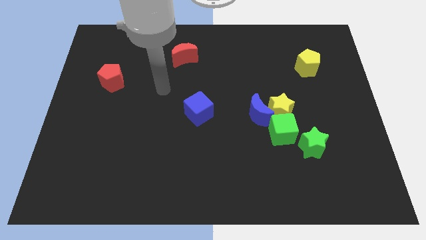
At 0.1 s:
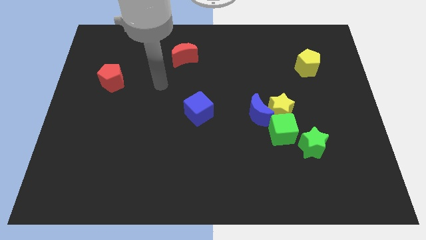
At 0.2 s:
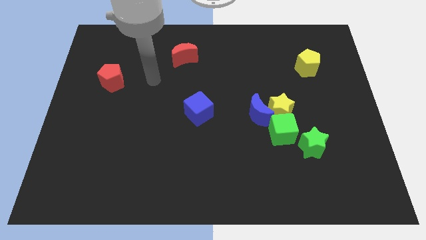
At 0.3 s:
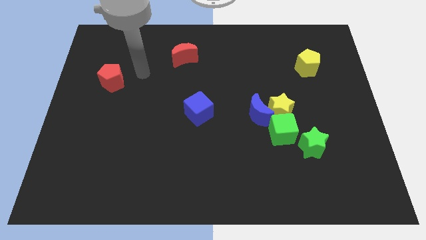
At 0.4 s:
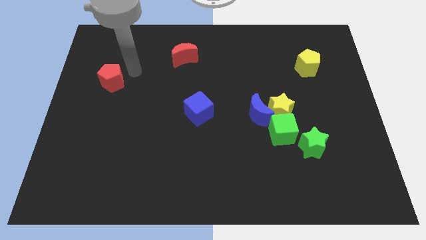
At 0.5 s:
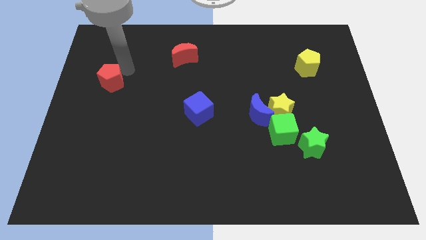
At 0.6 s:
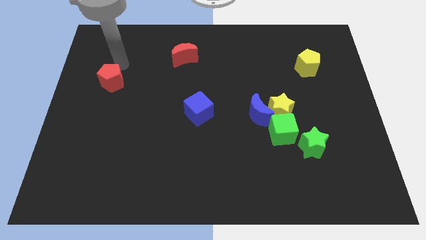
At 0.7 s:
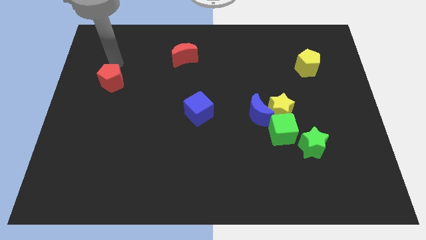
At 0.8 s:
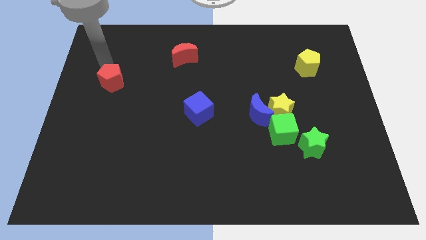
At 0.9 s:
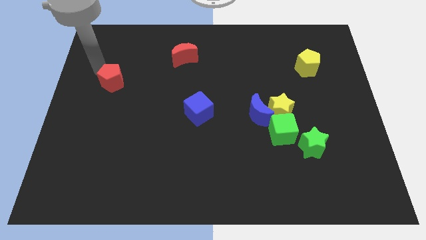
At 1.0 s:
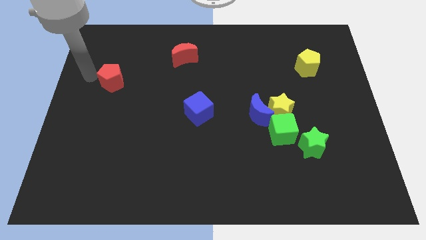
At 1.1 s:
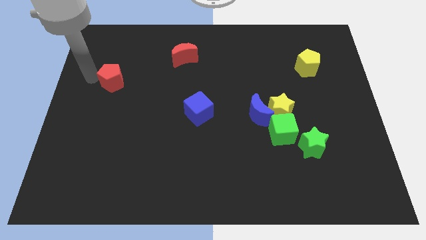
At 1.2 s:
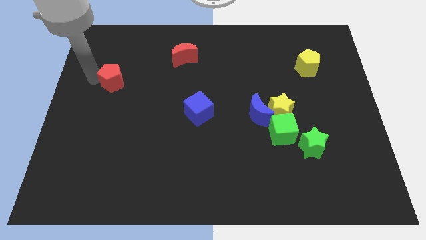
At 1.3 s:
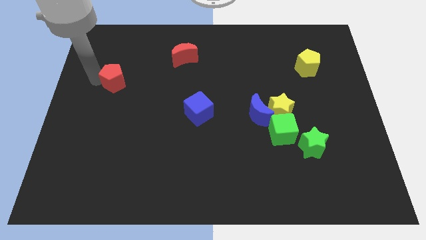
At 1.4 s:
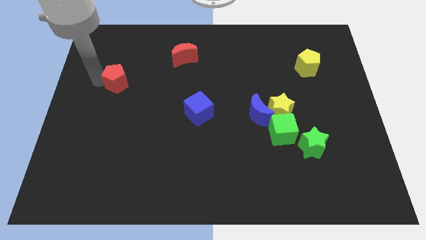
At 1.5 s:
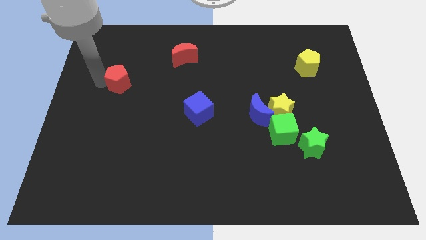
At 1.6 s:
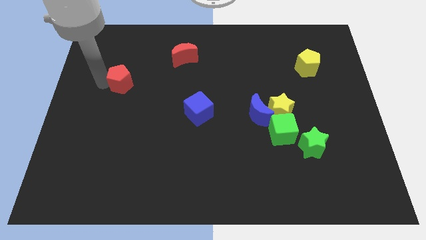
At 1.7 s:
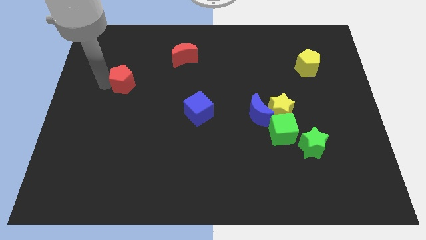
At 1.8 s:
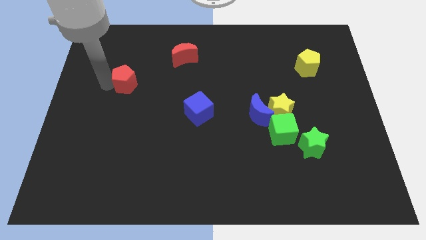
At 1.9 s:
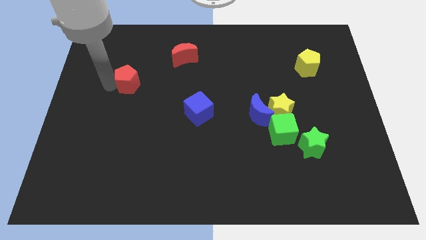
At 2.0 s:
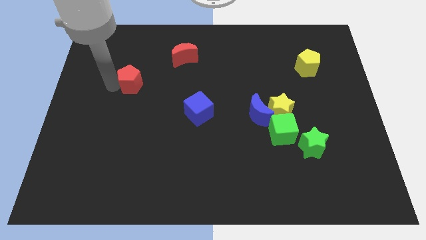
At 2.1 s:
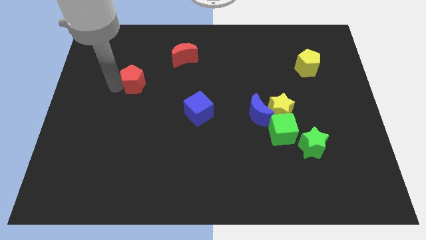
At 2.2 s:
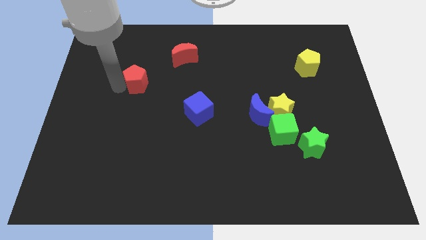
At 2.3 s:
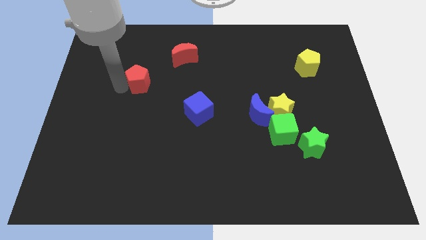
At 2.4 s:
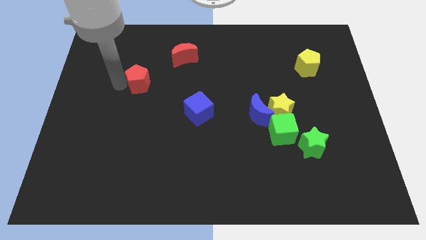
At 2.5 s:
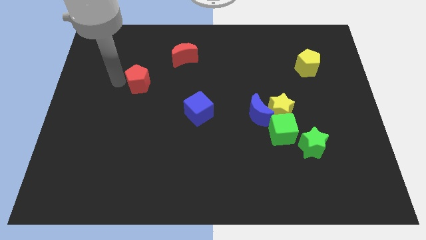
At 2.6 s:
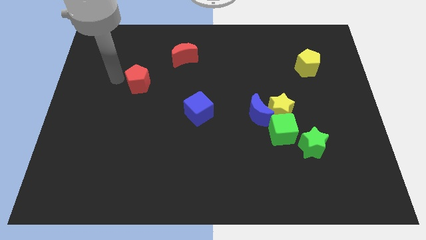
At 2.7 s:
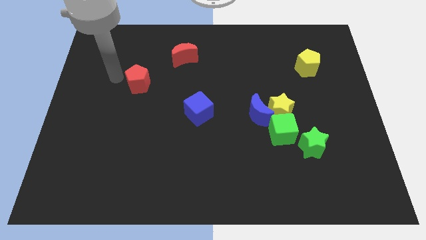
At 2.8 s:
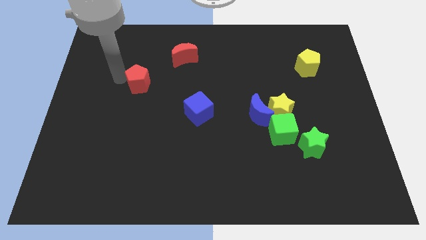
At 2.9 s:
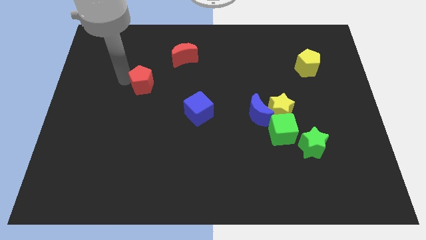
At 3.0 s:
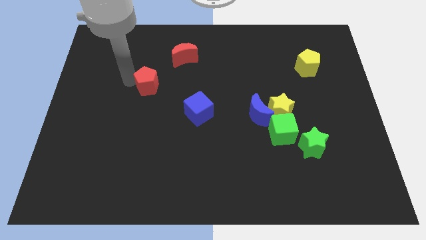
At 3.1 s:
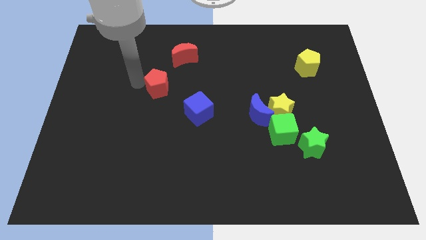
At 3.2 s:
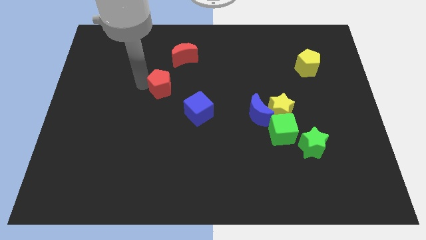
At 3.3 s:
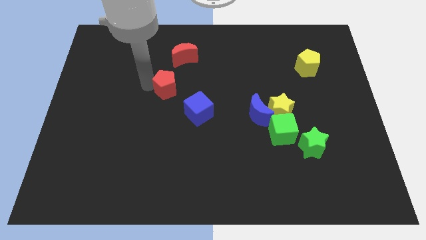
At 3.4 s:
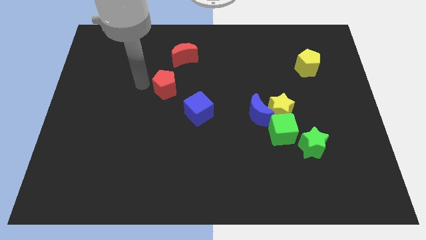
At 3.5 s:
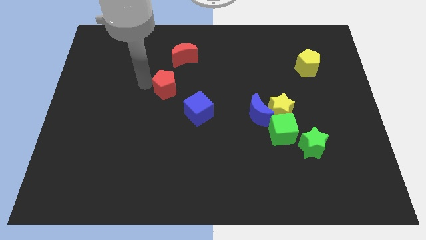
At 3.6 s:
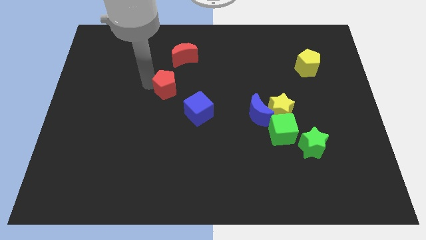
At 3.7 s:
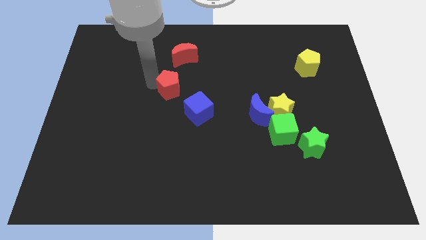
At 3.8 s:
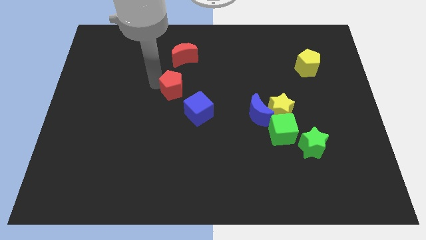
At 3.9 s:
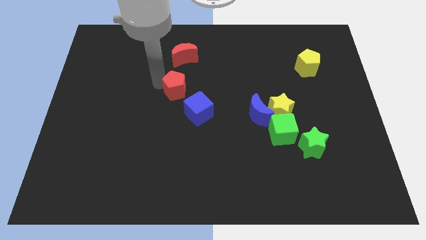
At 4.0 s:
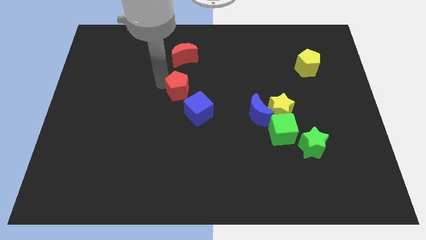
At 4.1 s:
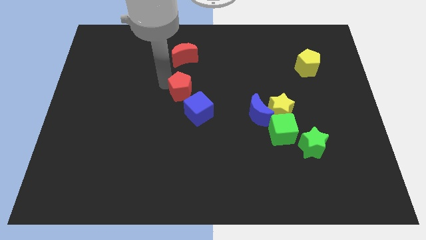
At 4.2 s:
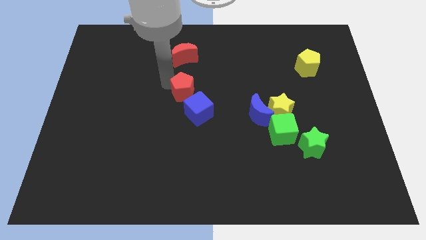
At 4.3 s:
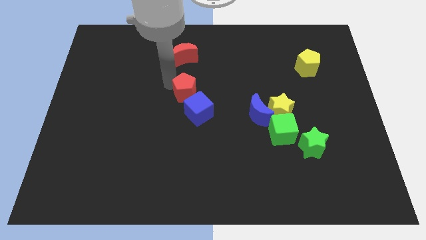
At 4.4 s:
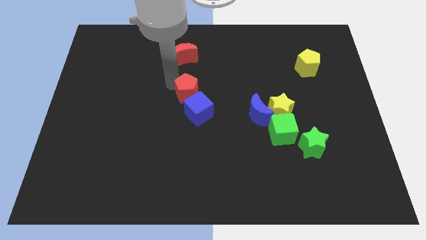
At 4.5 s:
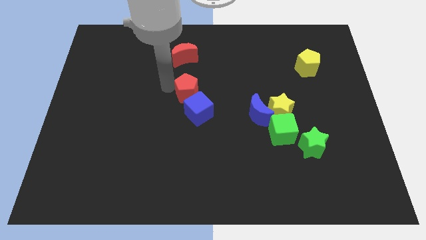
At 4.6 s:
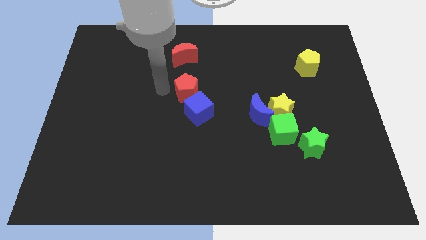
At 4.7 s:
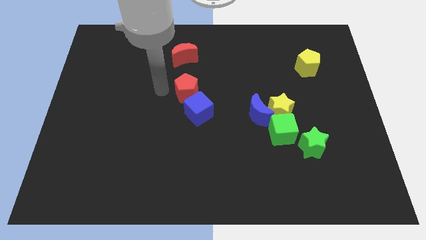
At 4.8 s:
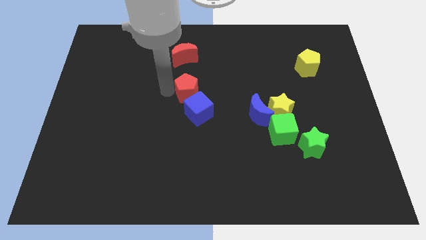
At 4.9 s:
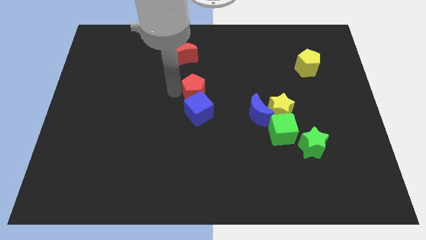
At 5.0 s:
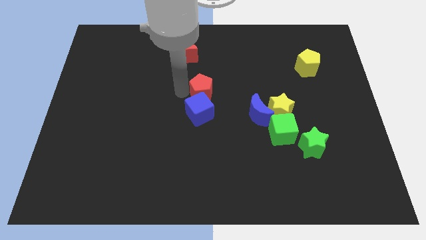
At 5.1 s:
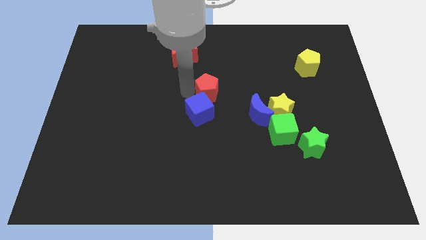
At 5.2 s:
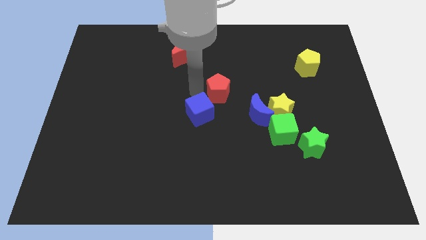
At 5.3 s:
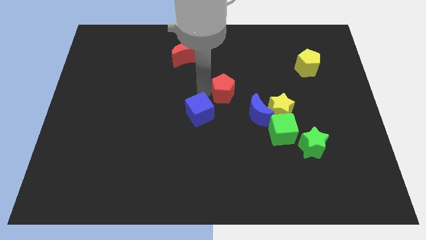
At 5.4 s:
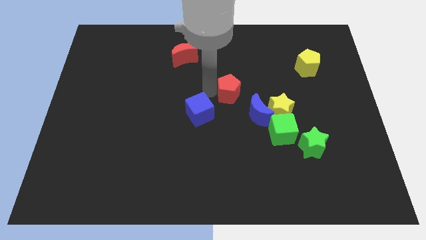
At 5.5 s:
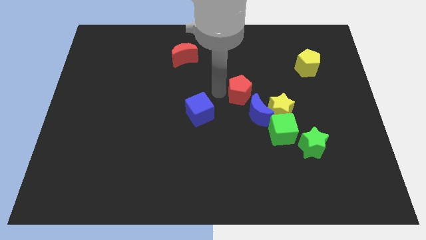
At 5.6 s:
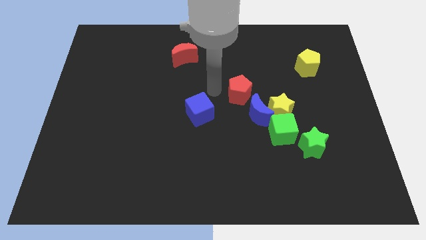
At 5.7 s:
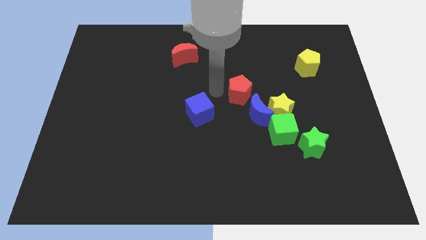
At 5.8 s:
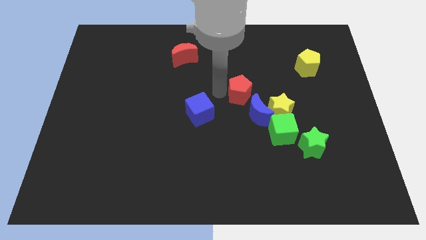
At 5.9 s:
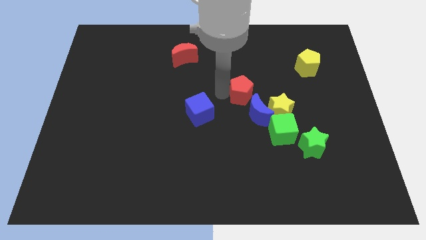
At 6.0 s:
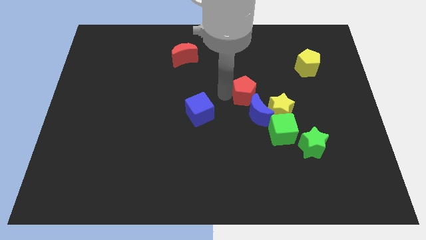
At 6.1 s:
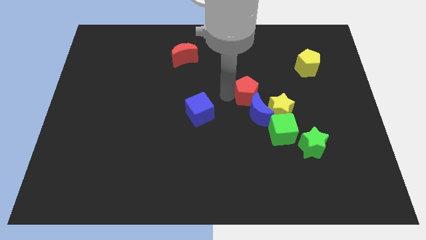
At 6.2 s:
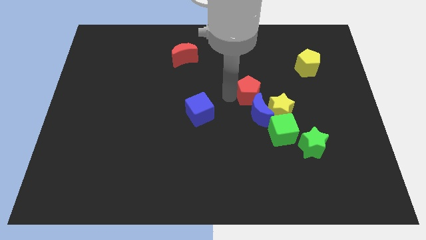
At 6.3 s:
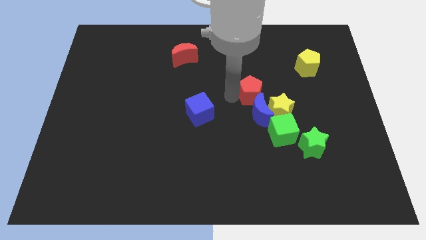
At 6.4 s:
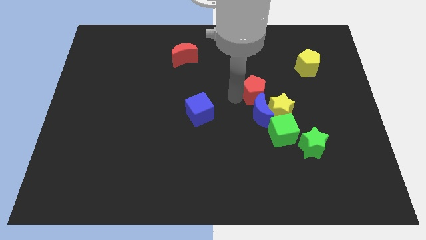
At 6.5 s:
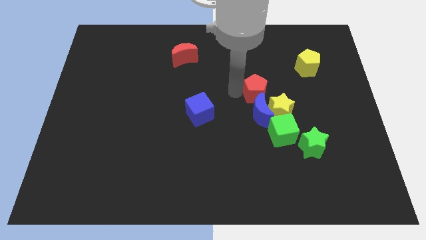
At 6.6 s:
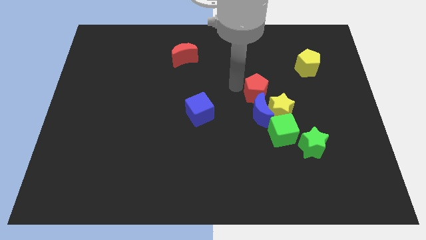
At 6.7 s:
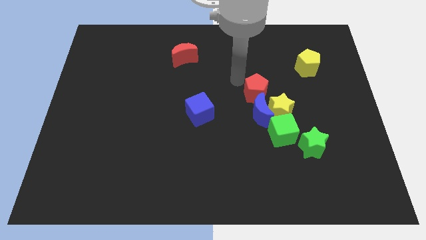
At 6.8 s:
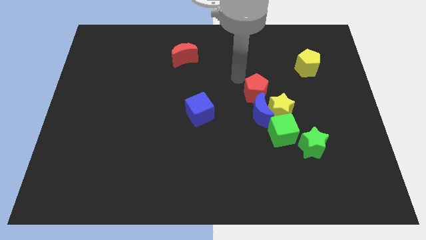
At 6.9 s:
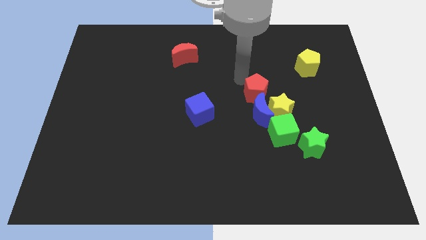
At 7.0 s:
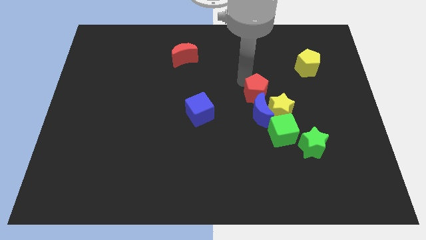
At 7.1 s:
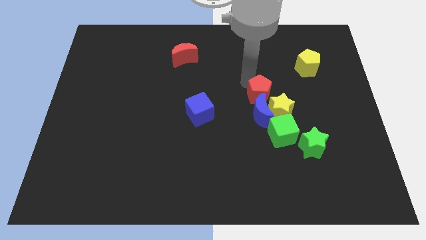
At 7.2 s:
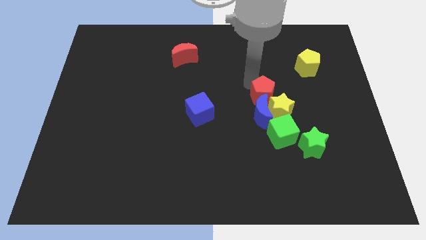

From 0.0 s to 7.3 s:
put the red pentagon close to the yellow star
